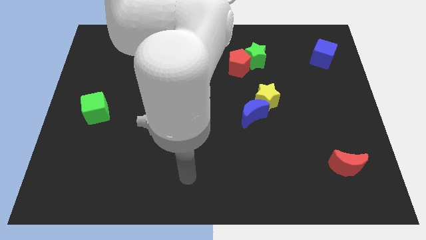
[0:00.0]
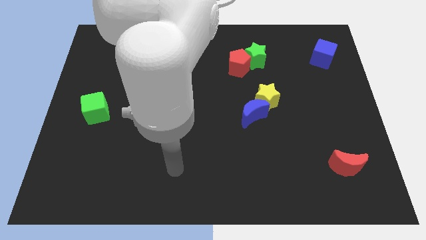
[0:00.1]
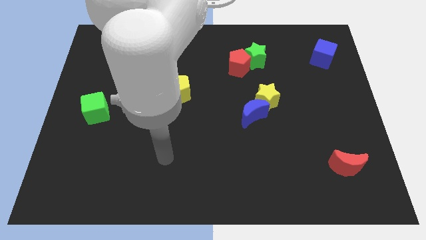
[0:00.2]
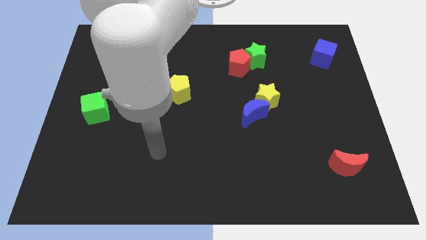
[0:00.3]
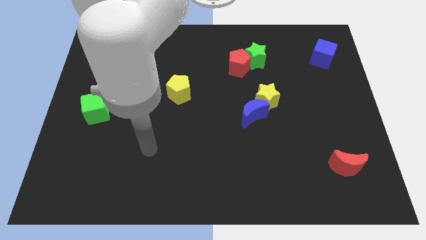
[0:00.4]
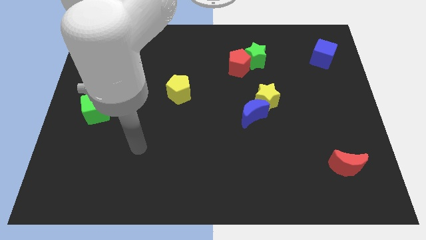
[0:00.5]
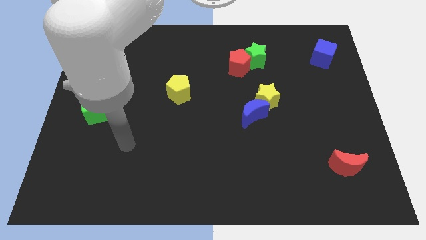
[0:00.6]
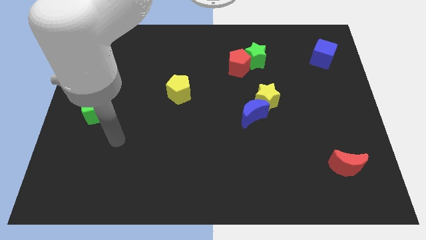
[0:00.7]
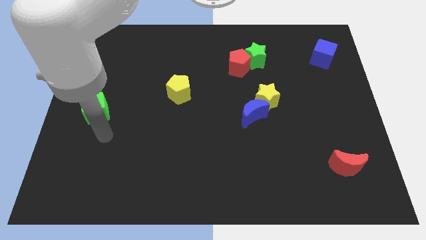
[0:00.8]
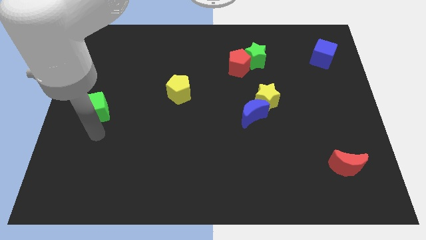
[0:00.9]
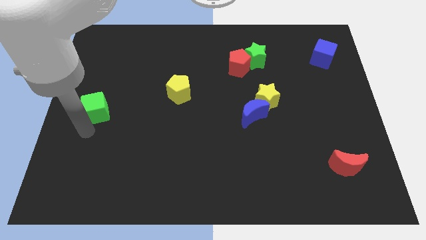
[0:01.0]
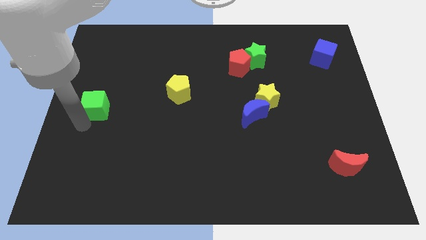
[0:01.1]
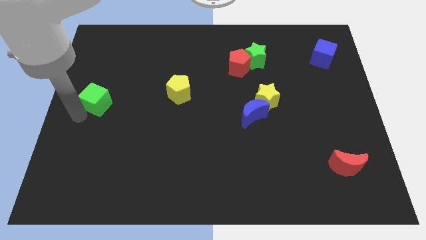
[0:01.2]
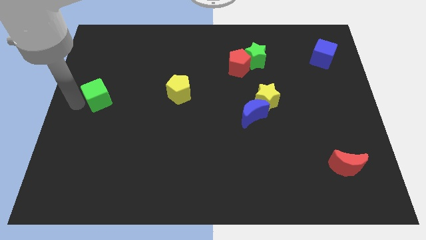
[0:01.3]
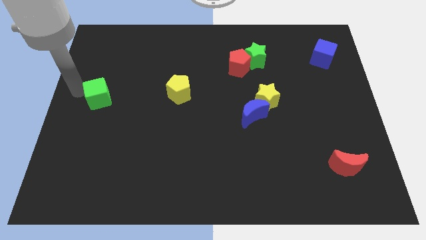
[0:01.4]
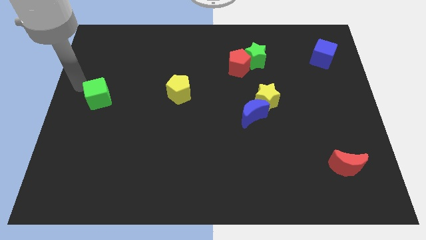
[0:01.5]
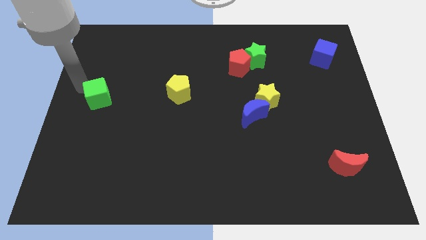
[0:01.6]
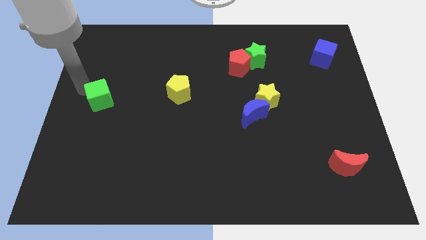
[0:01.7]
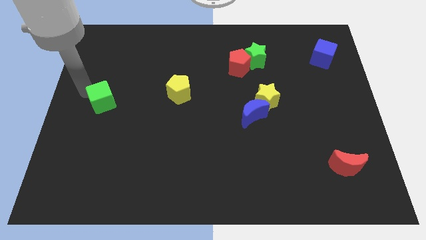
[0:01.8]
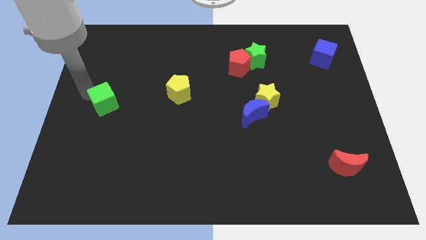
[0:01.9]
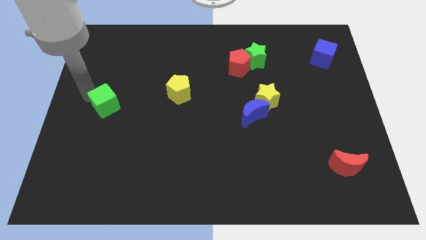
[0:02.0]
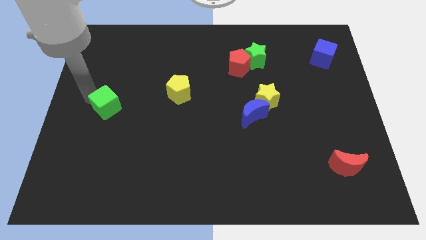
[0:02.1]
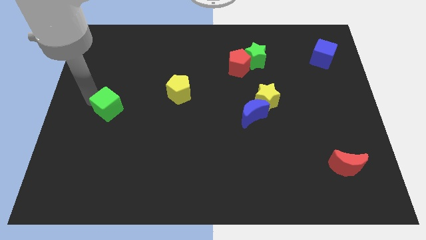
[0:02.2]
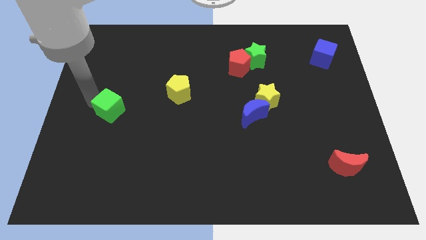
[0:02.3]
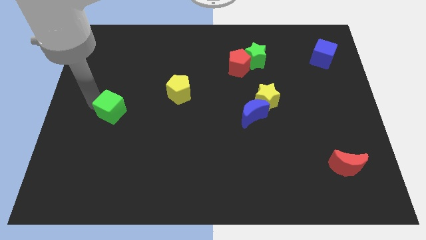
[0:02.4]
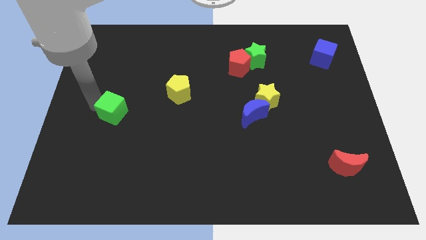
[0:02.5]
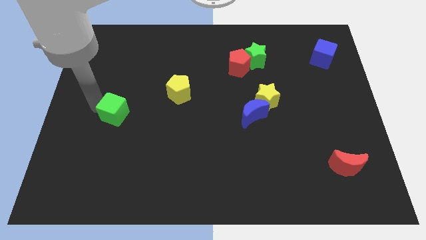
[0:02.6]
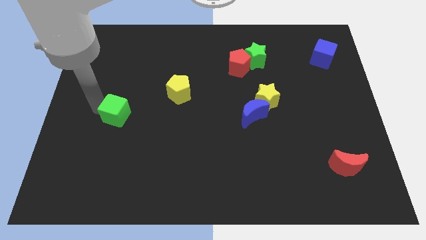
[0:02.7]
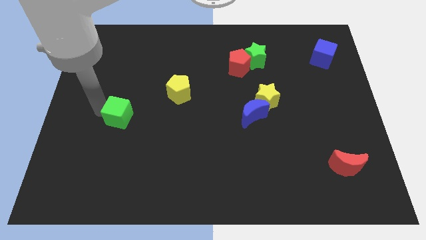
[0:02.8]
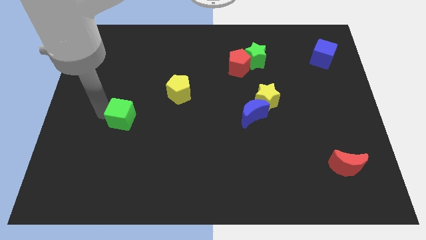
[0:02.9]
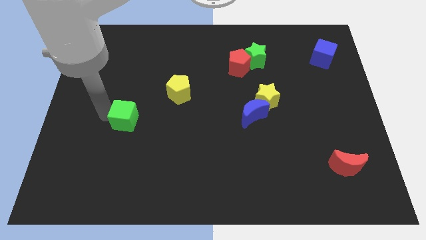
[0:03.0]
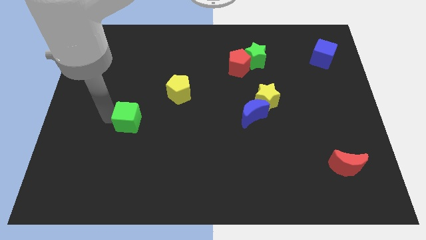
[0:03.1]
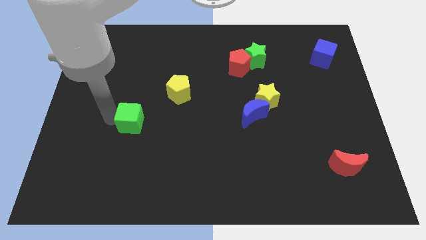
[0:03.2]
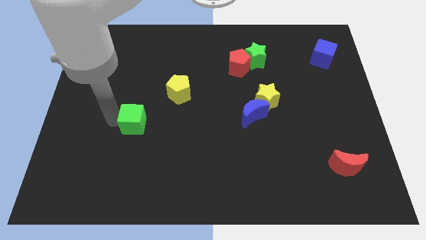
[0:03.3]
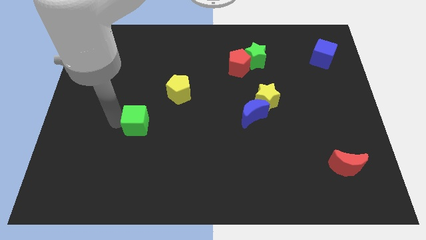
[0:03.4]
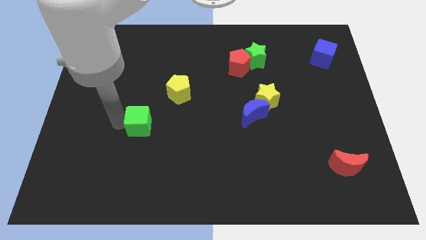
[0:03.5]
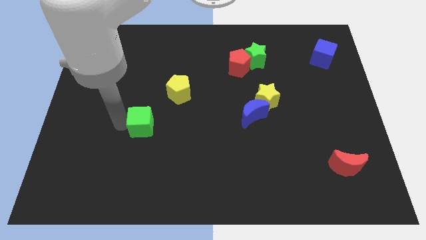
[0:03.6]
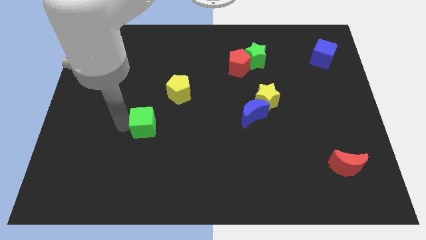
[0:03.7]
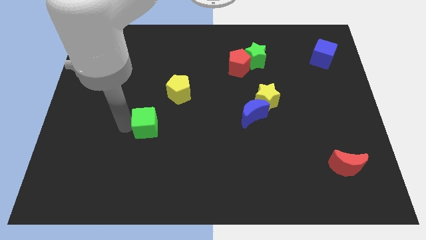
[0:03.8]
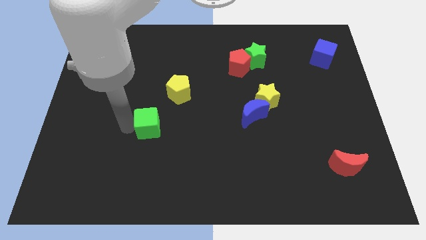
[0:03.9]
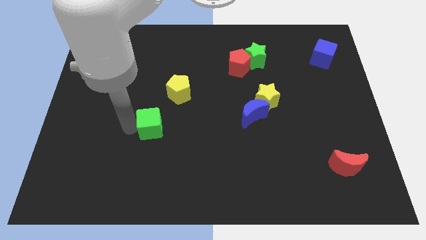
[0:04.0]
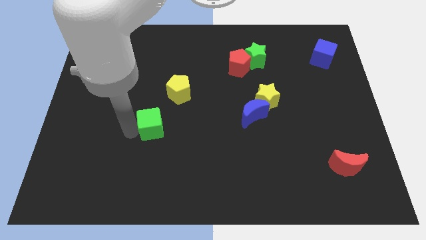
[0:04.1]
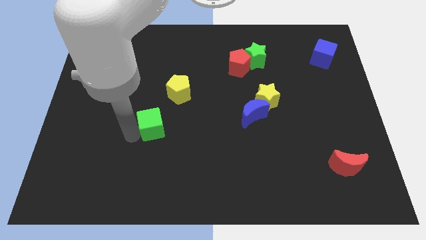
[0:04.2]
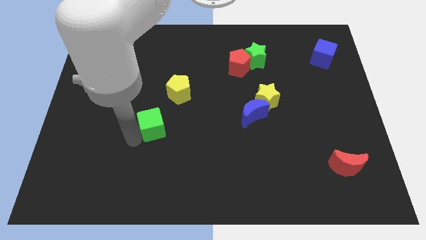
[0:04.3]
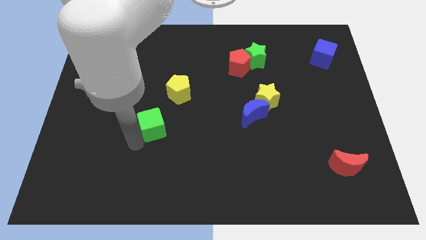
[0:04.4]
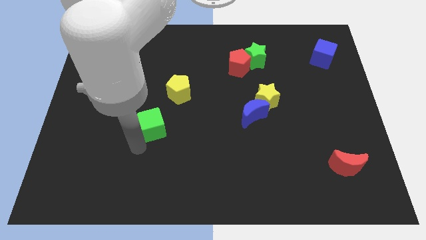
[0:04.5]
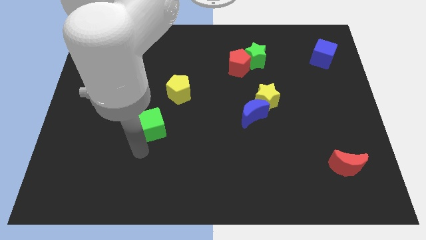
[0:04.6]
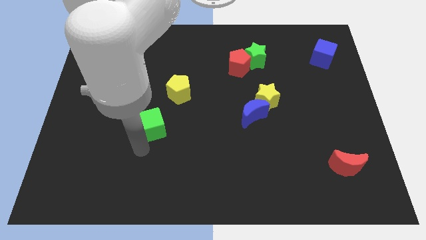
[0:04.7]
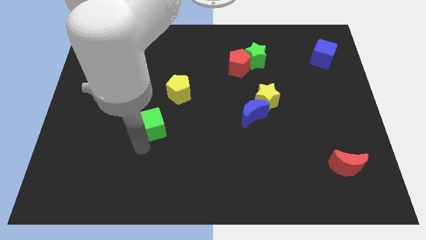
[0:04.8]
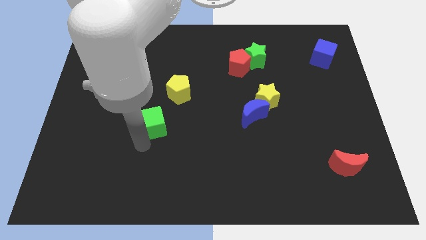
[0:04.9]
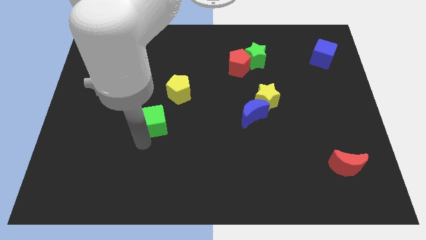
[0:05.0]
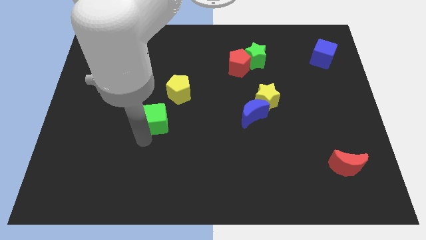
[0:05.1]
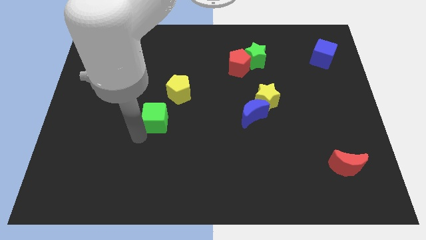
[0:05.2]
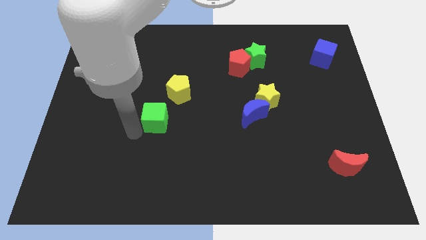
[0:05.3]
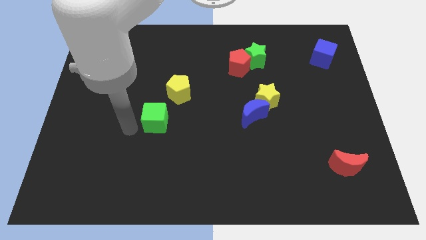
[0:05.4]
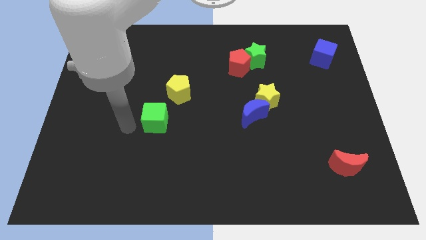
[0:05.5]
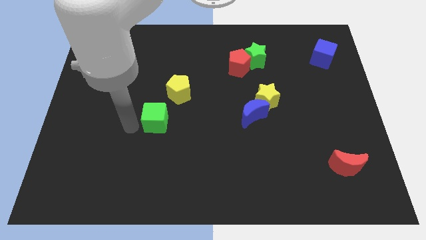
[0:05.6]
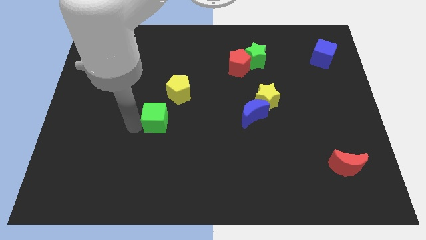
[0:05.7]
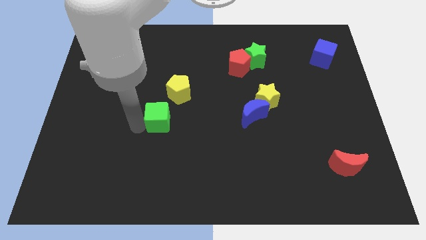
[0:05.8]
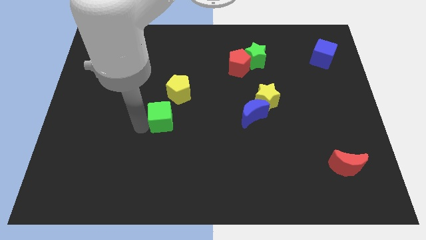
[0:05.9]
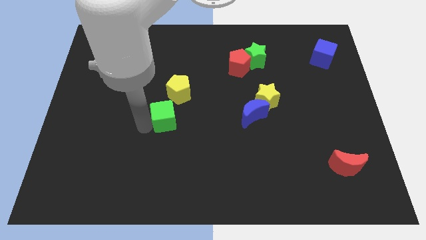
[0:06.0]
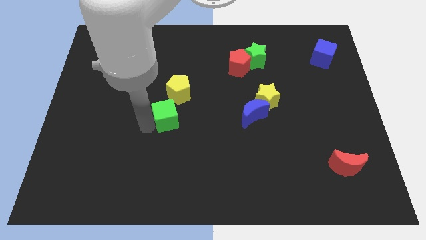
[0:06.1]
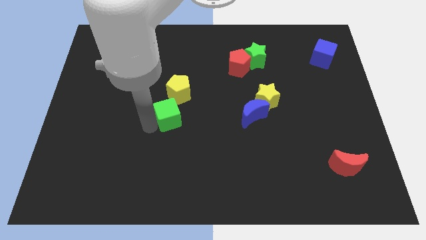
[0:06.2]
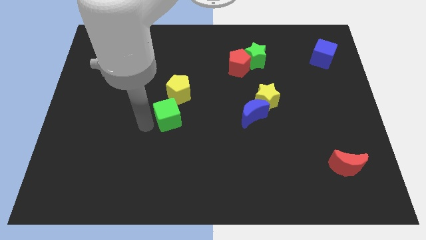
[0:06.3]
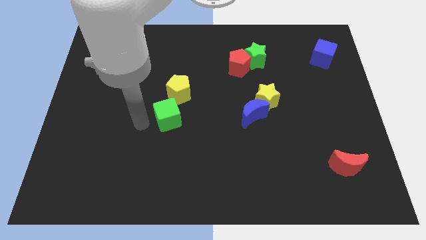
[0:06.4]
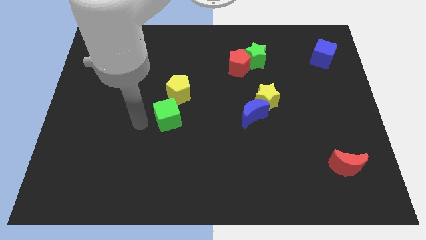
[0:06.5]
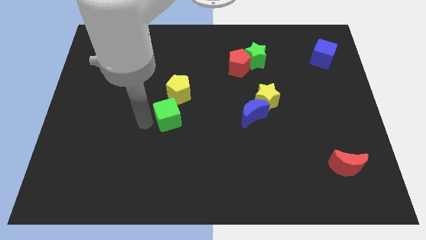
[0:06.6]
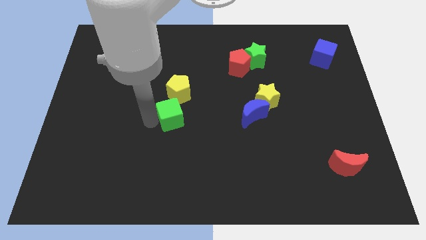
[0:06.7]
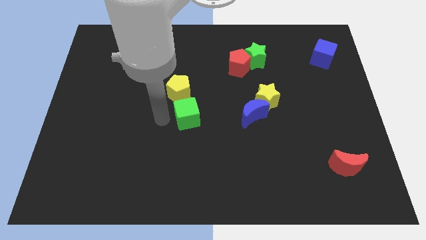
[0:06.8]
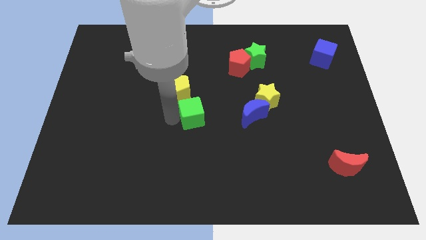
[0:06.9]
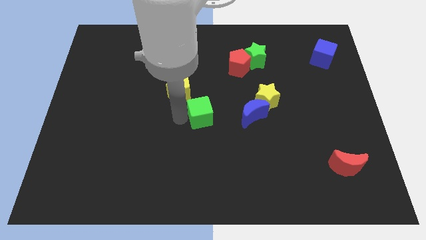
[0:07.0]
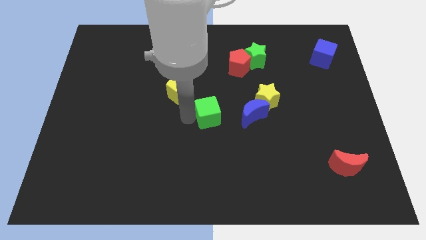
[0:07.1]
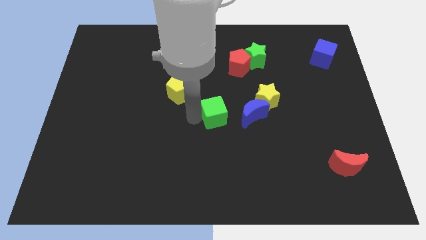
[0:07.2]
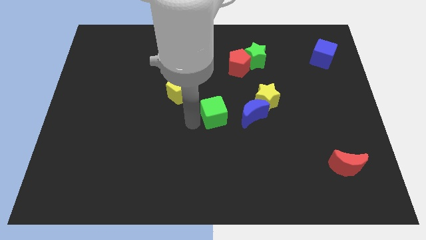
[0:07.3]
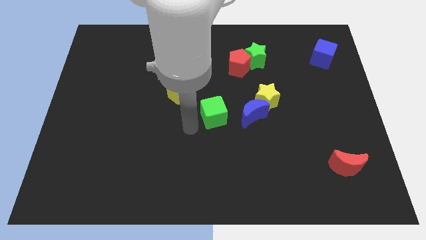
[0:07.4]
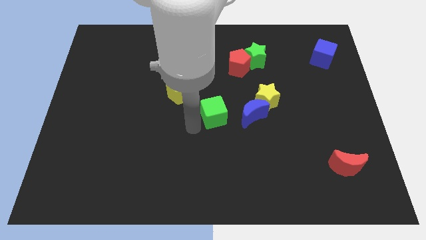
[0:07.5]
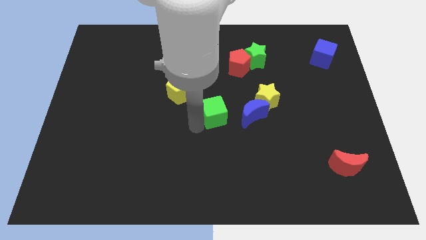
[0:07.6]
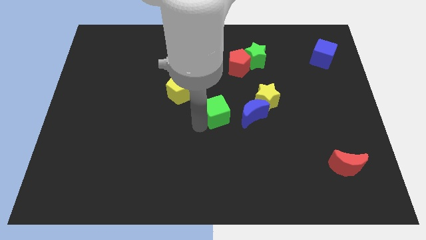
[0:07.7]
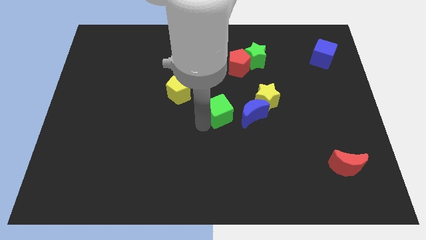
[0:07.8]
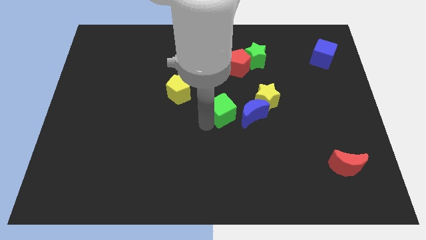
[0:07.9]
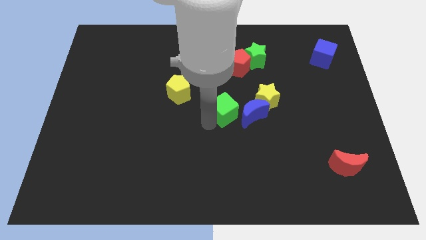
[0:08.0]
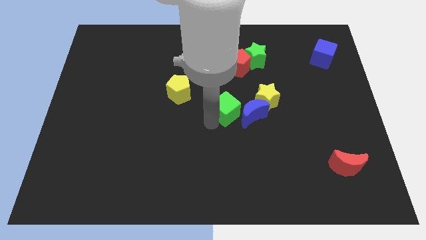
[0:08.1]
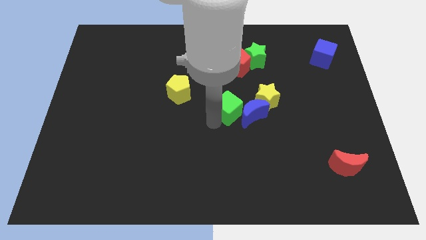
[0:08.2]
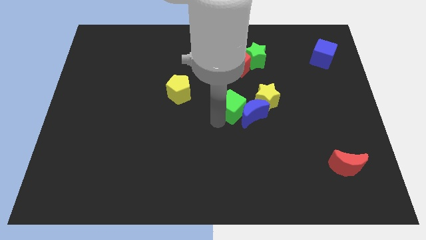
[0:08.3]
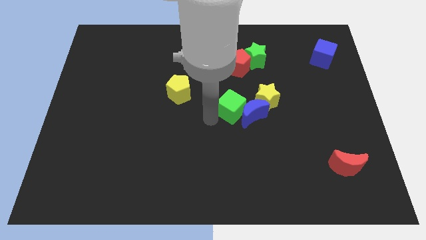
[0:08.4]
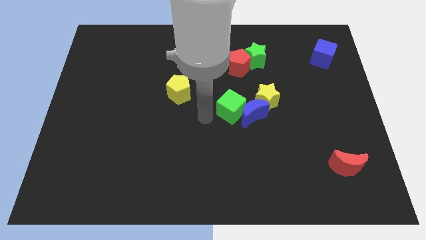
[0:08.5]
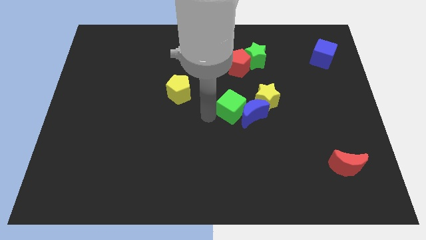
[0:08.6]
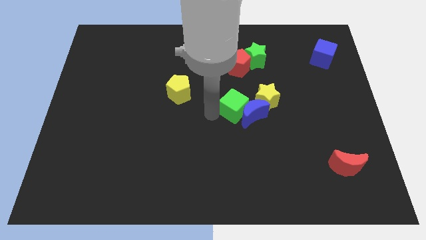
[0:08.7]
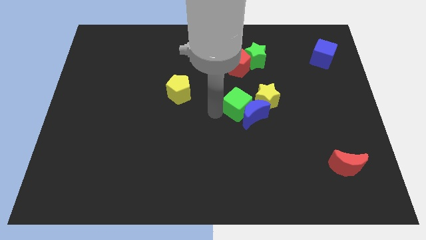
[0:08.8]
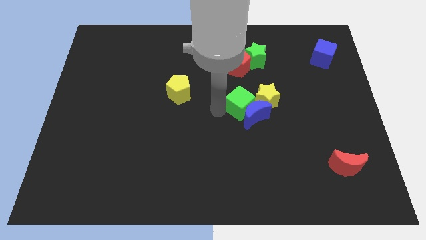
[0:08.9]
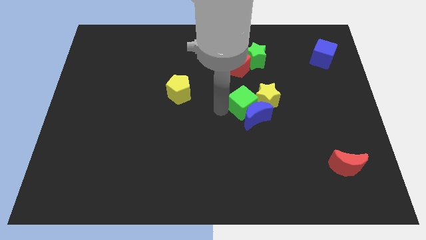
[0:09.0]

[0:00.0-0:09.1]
push the green cube towards the yellow star
